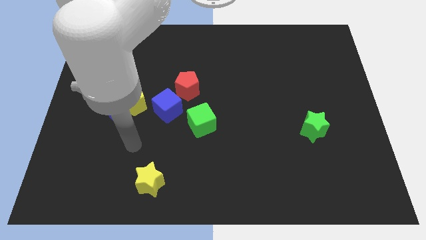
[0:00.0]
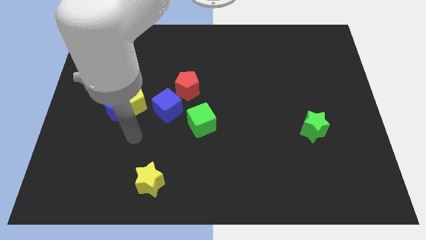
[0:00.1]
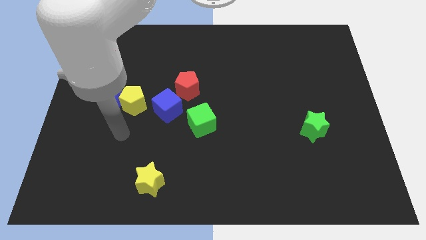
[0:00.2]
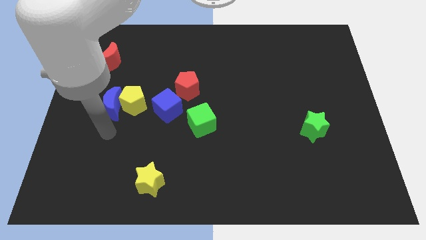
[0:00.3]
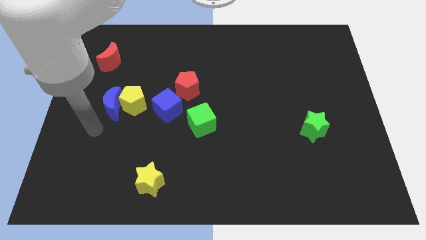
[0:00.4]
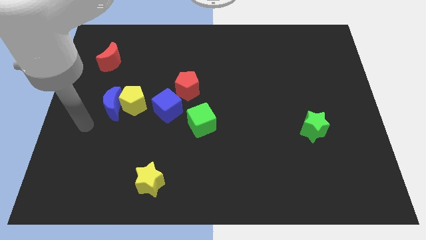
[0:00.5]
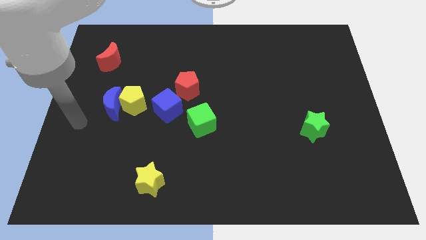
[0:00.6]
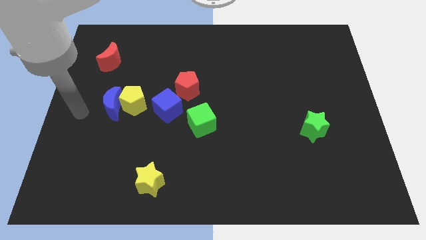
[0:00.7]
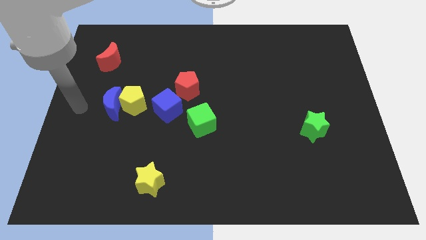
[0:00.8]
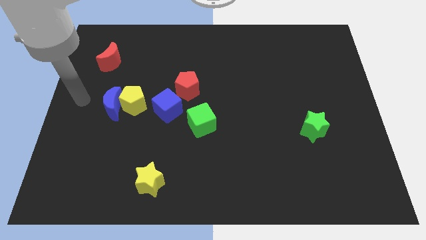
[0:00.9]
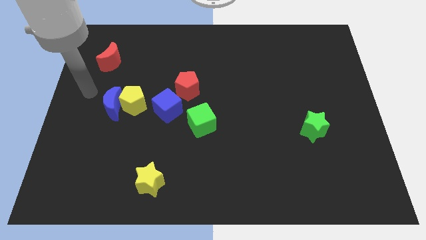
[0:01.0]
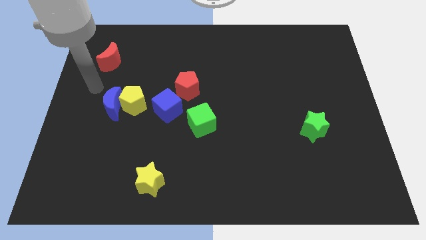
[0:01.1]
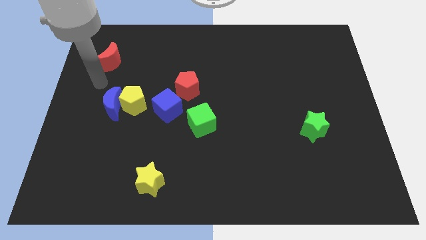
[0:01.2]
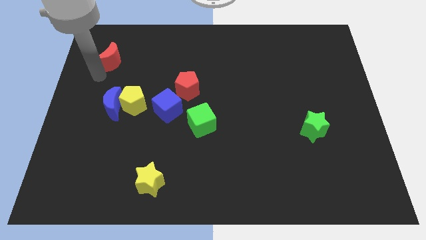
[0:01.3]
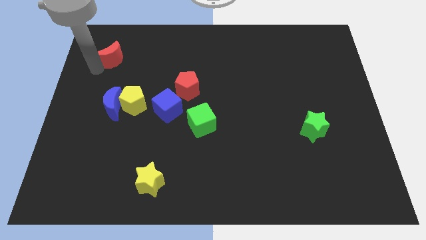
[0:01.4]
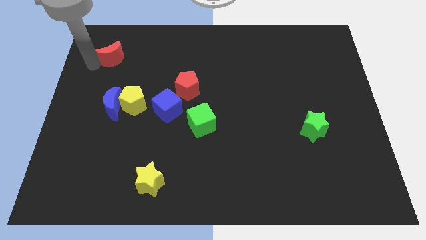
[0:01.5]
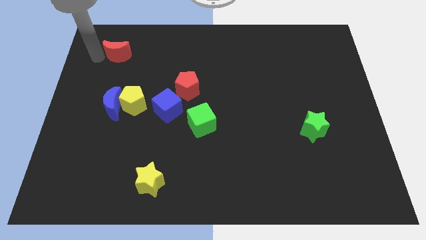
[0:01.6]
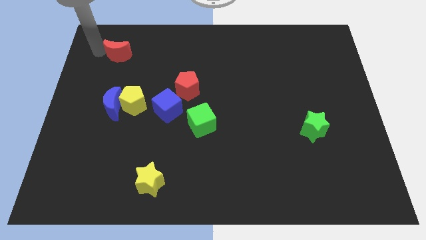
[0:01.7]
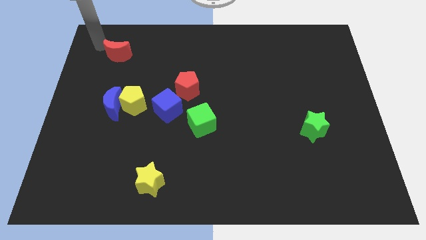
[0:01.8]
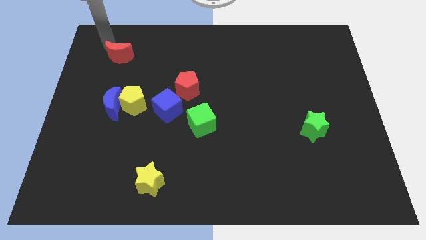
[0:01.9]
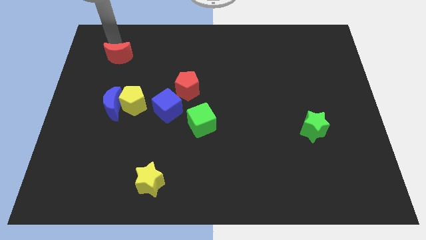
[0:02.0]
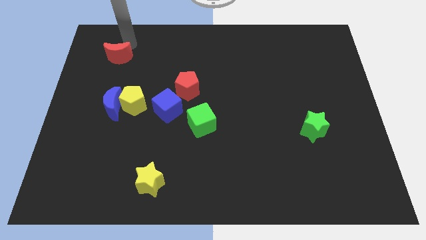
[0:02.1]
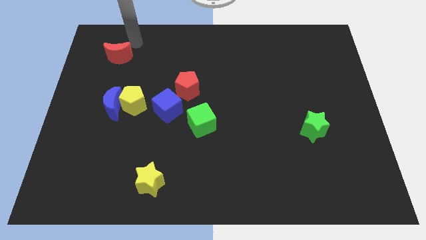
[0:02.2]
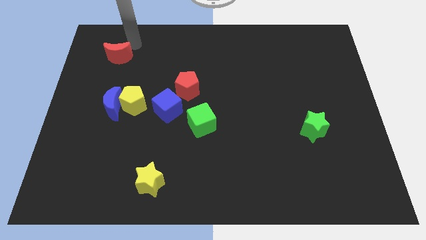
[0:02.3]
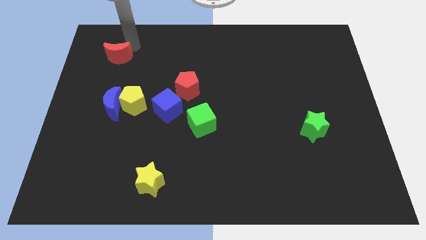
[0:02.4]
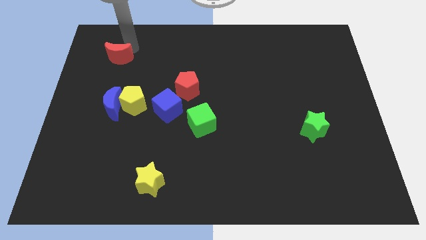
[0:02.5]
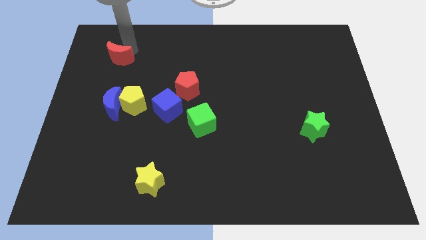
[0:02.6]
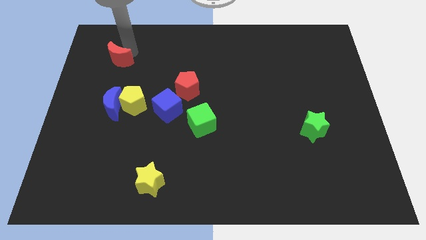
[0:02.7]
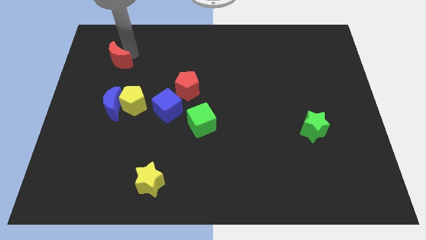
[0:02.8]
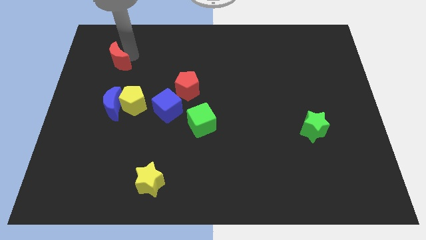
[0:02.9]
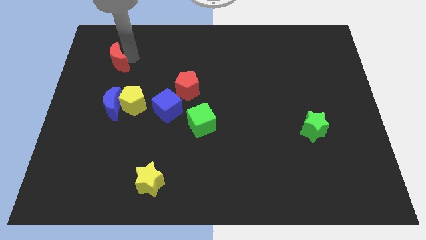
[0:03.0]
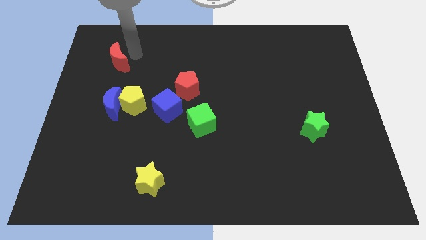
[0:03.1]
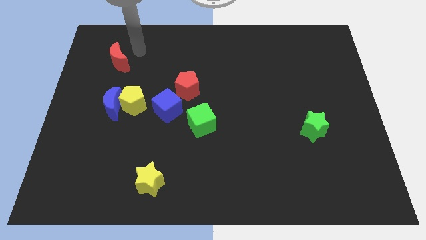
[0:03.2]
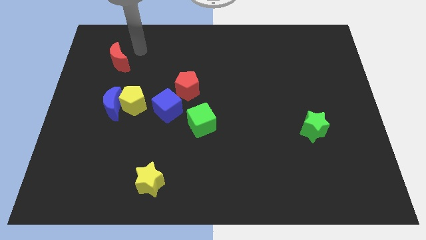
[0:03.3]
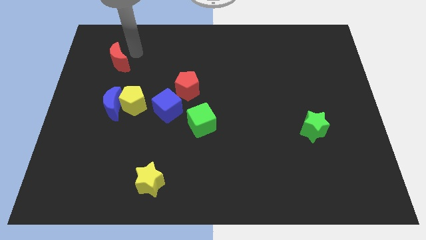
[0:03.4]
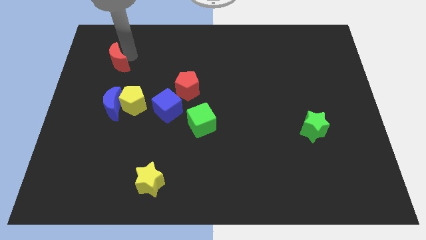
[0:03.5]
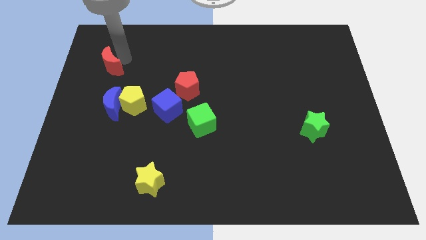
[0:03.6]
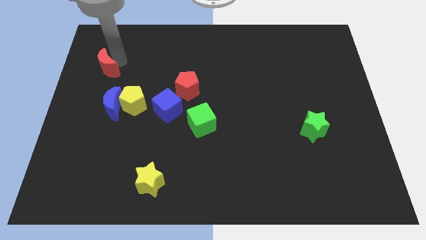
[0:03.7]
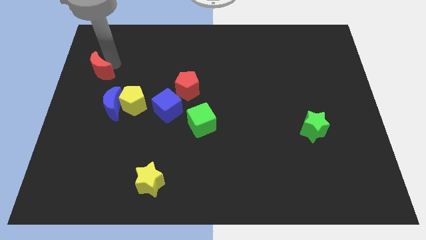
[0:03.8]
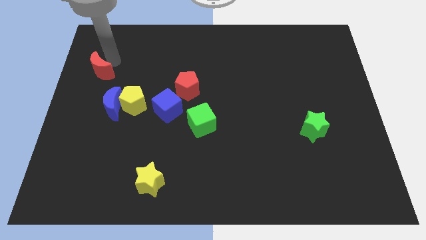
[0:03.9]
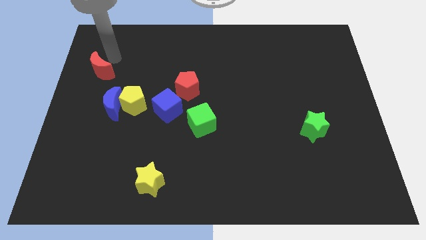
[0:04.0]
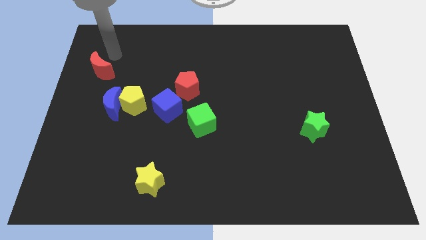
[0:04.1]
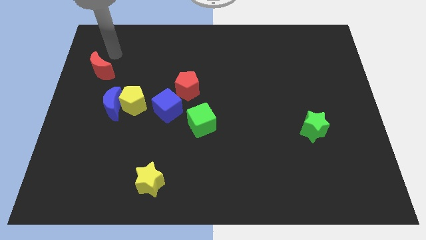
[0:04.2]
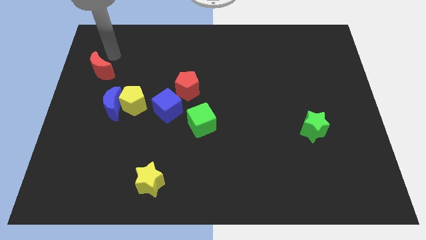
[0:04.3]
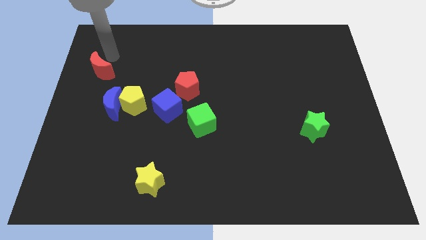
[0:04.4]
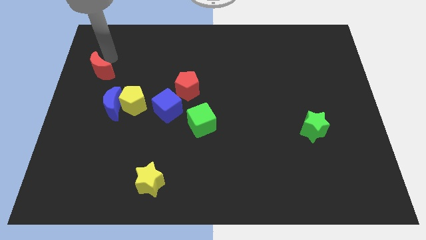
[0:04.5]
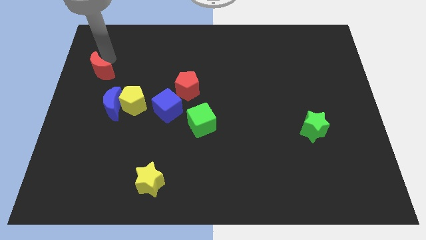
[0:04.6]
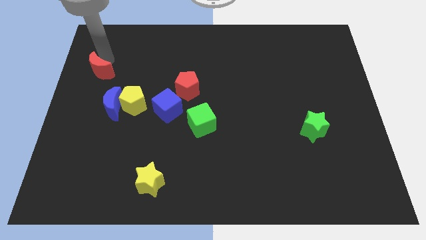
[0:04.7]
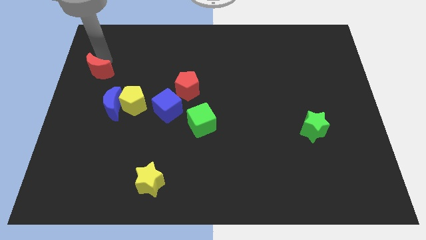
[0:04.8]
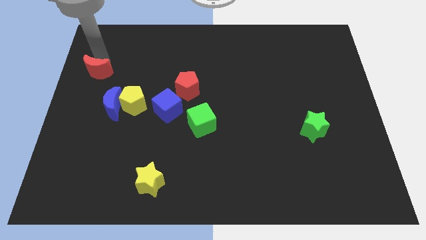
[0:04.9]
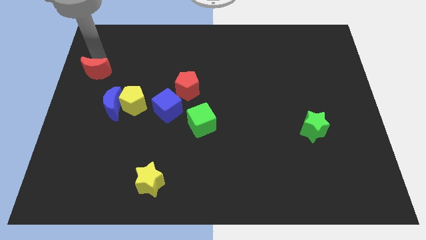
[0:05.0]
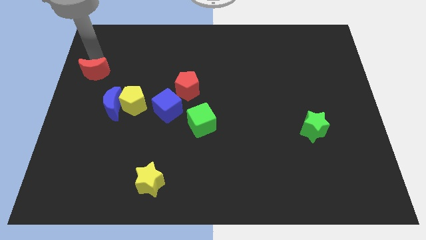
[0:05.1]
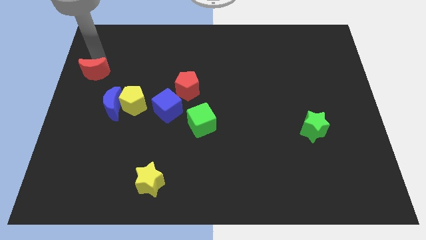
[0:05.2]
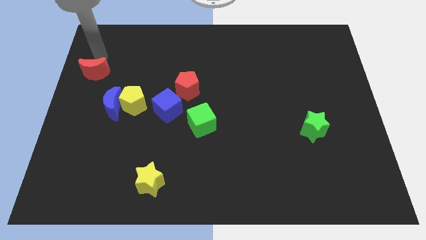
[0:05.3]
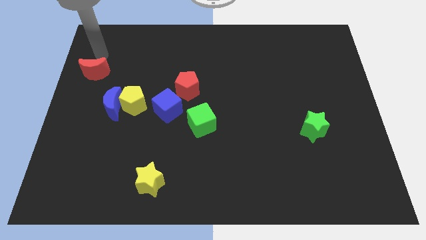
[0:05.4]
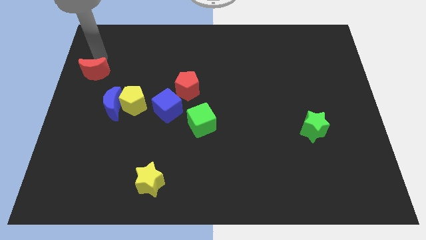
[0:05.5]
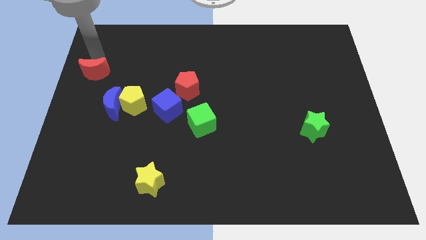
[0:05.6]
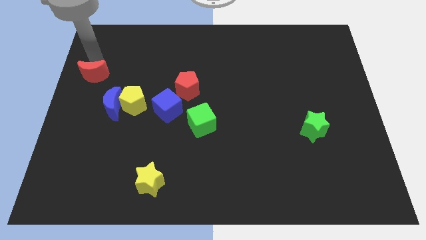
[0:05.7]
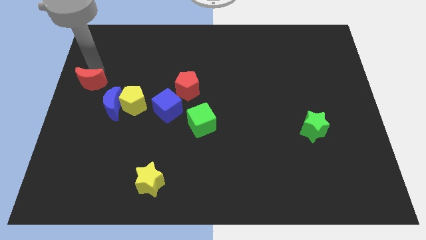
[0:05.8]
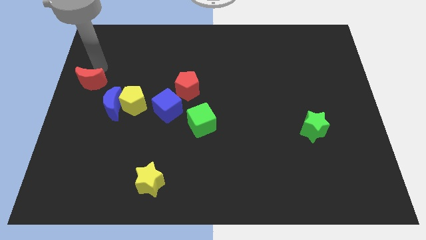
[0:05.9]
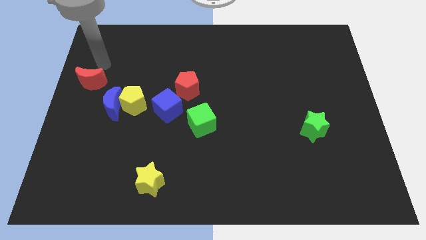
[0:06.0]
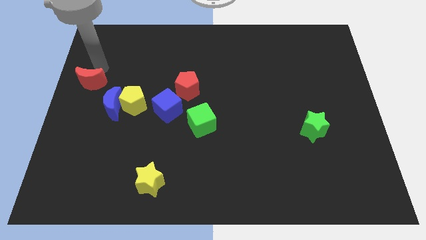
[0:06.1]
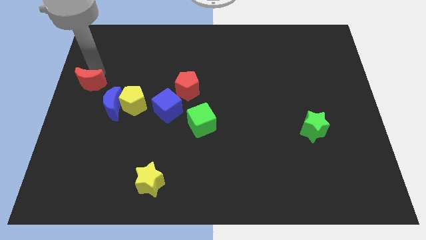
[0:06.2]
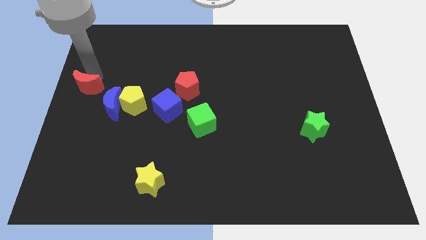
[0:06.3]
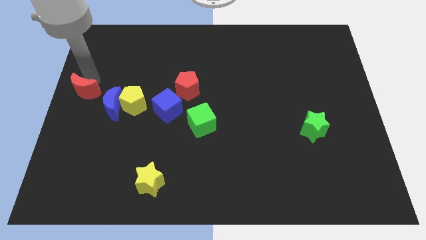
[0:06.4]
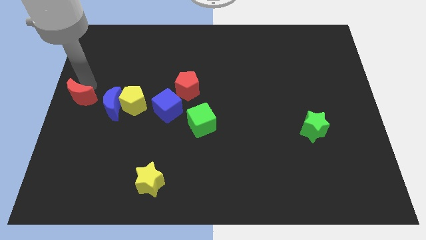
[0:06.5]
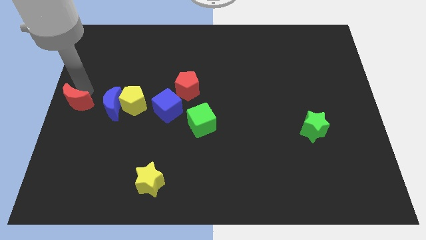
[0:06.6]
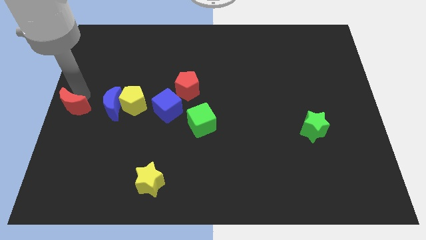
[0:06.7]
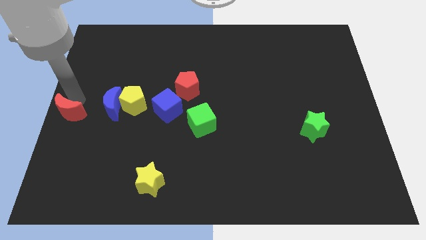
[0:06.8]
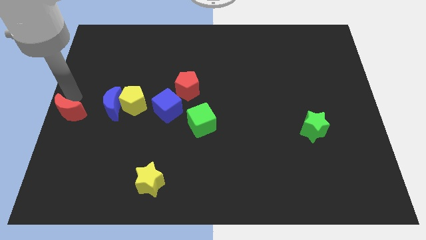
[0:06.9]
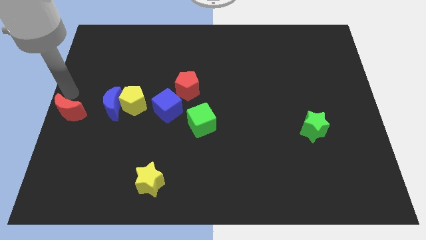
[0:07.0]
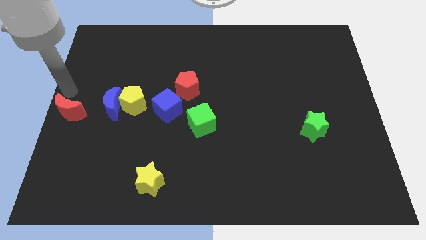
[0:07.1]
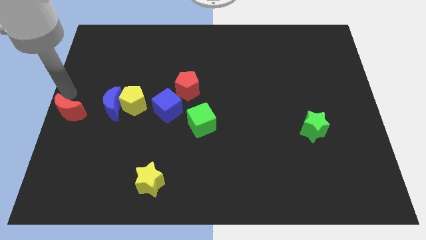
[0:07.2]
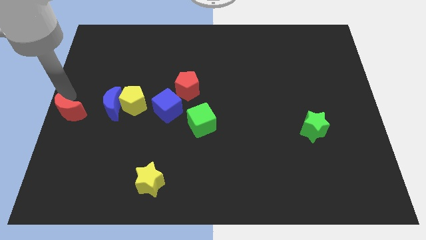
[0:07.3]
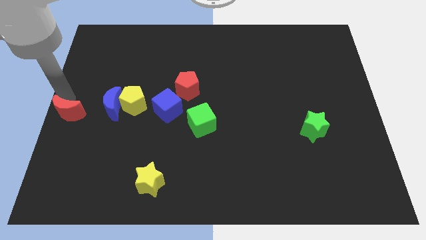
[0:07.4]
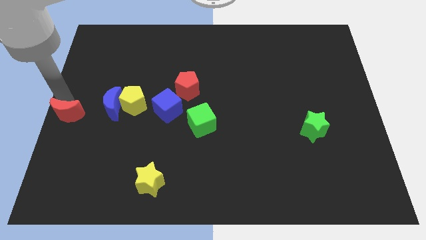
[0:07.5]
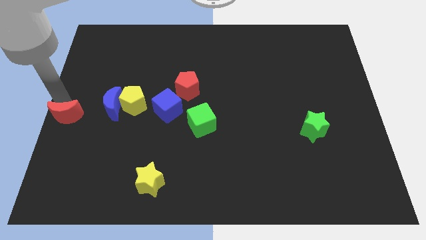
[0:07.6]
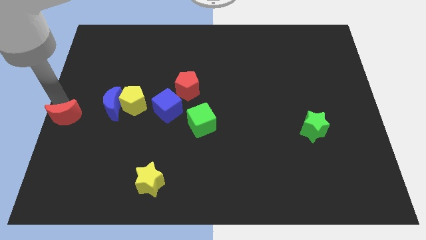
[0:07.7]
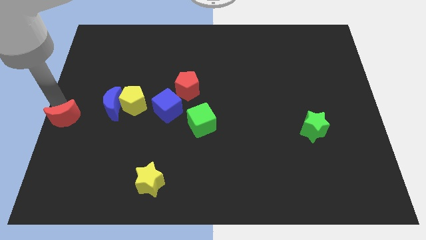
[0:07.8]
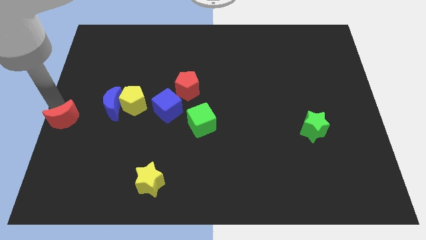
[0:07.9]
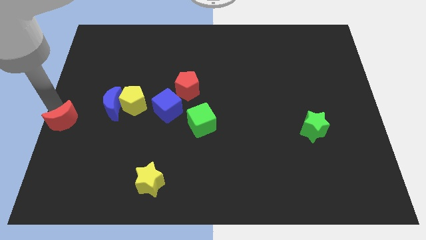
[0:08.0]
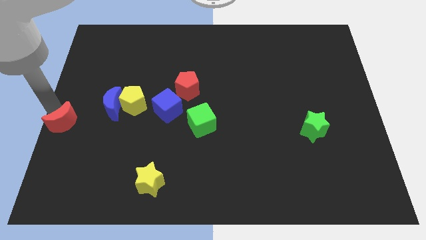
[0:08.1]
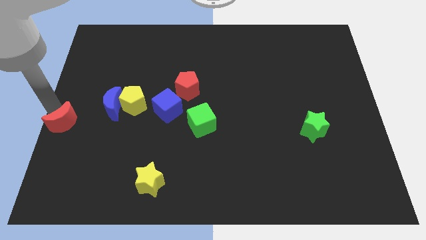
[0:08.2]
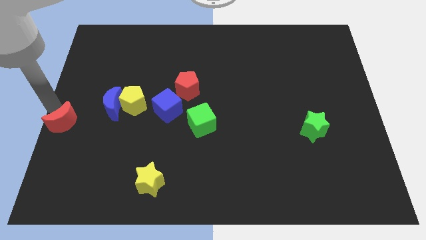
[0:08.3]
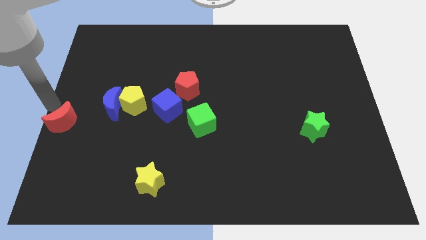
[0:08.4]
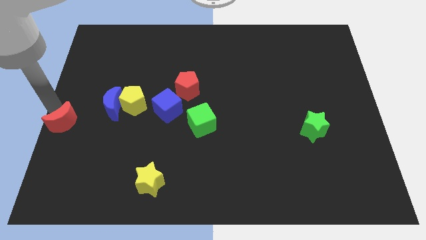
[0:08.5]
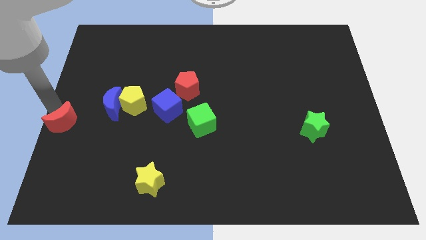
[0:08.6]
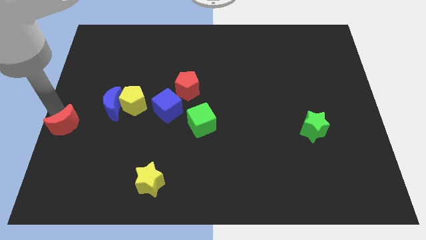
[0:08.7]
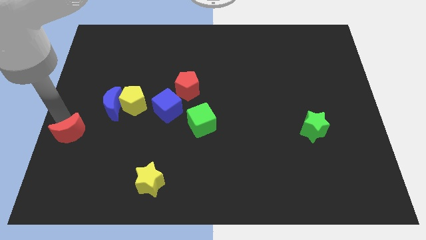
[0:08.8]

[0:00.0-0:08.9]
move the red moon downwards
